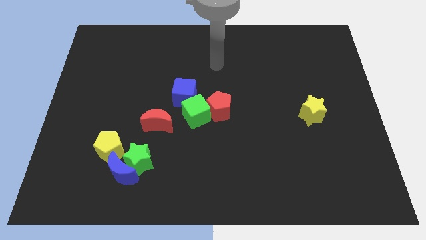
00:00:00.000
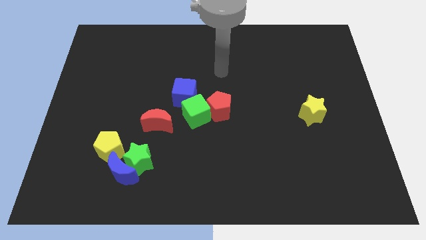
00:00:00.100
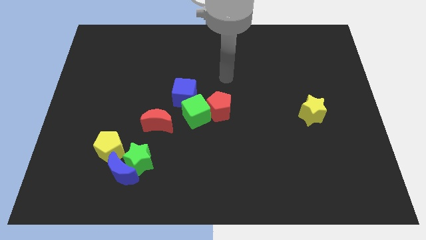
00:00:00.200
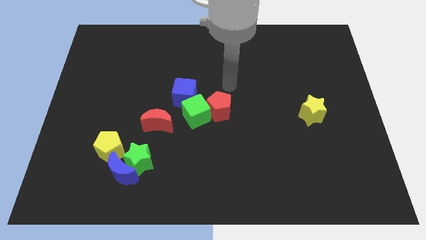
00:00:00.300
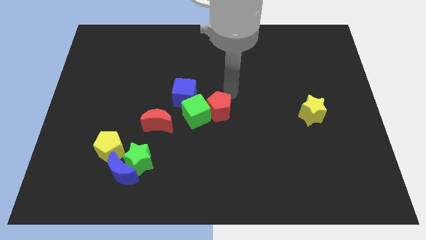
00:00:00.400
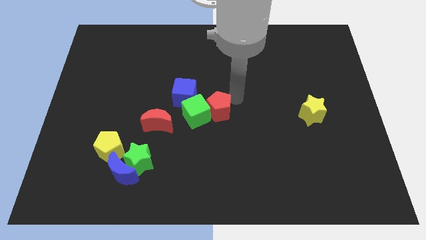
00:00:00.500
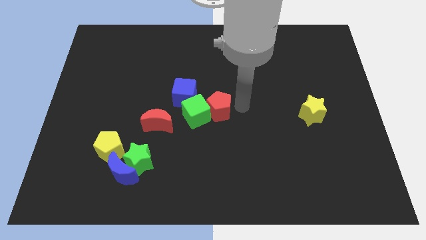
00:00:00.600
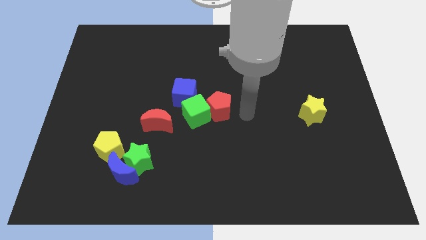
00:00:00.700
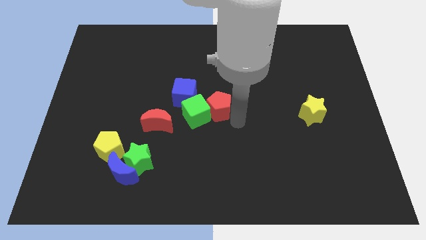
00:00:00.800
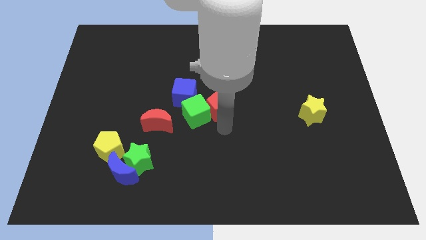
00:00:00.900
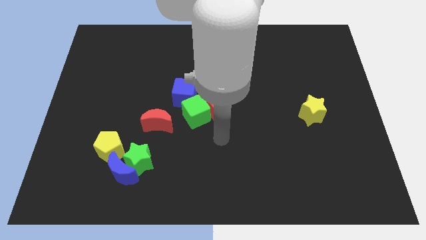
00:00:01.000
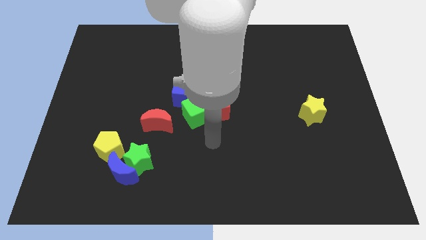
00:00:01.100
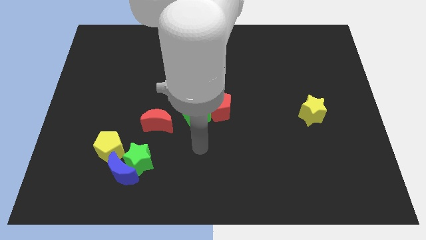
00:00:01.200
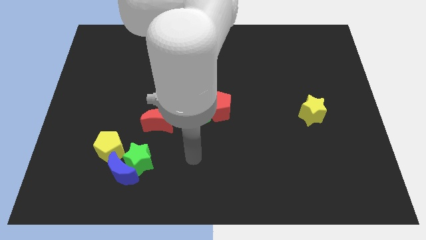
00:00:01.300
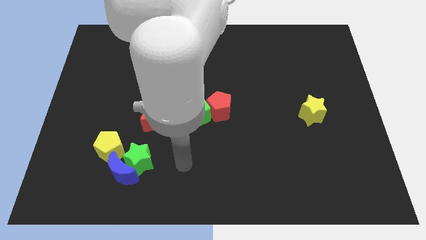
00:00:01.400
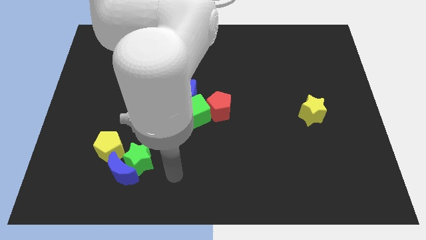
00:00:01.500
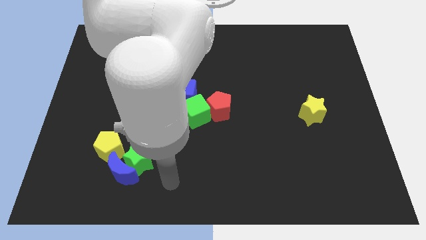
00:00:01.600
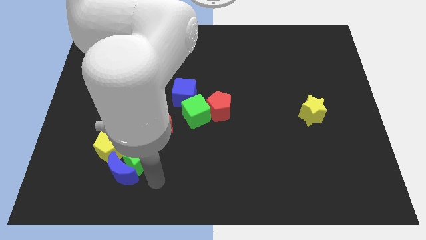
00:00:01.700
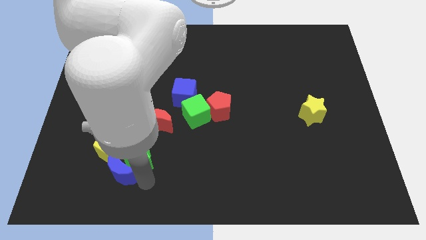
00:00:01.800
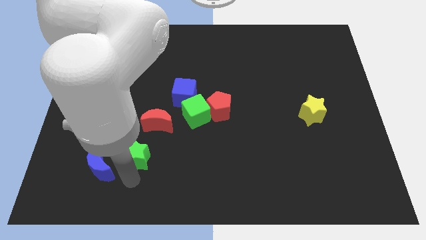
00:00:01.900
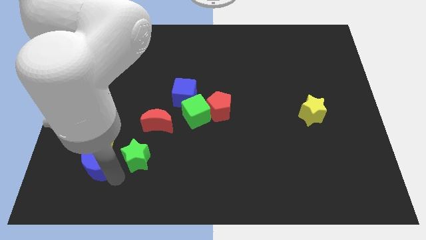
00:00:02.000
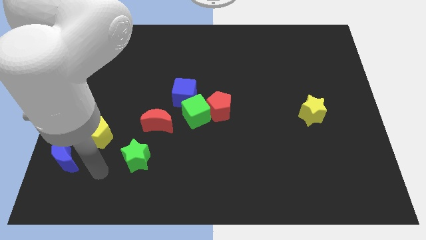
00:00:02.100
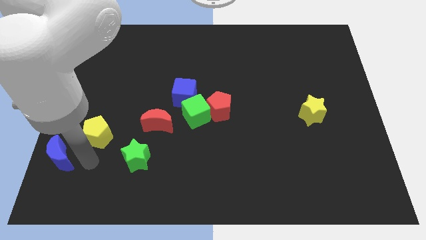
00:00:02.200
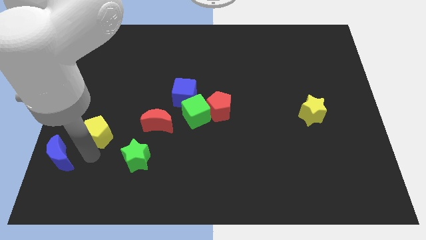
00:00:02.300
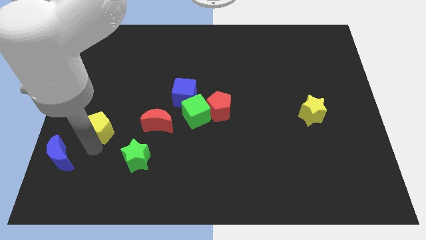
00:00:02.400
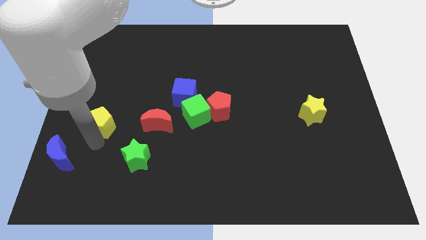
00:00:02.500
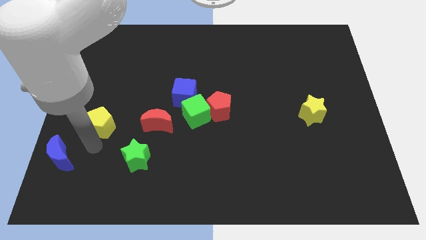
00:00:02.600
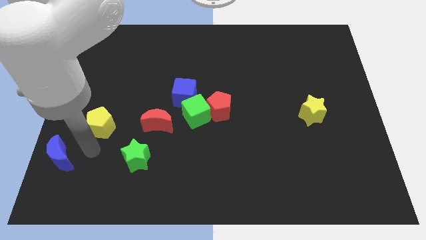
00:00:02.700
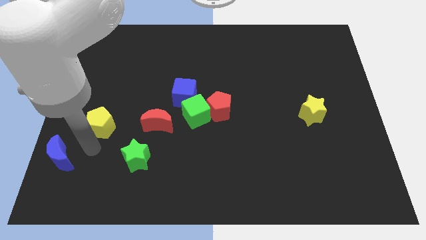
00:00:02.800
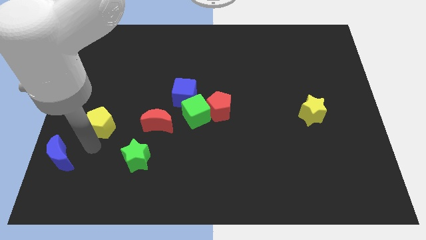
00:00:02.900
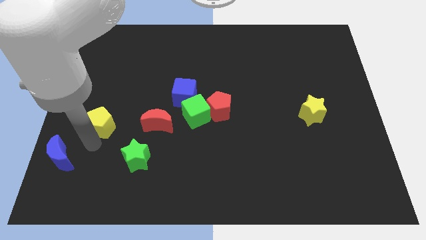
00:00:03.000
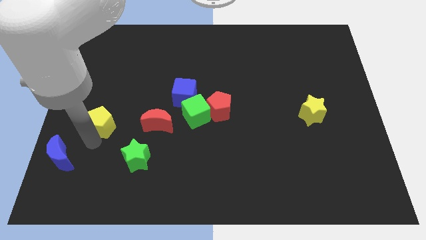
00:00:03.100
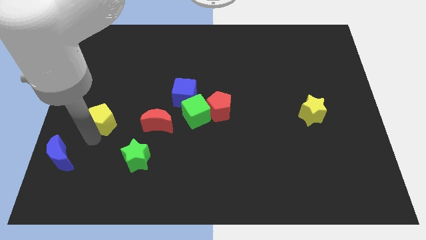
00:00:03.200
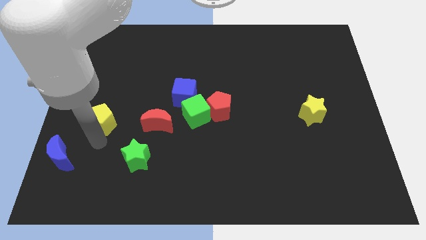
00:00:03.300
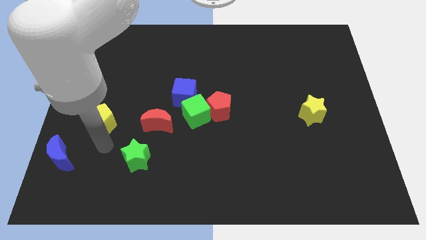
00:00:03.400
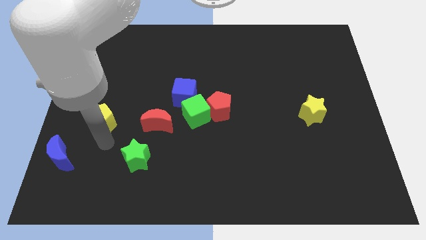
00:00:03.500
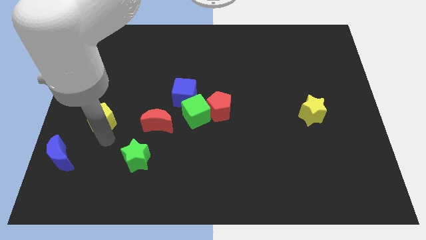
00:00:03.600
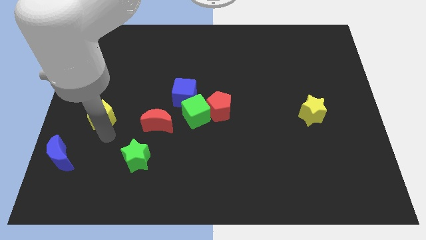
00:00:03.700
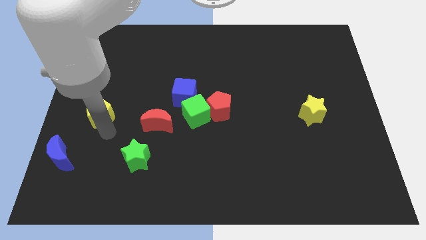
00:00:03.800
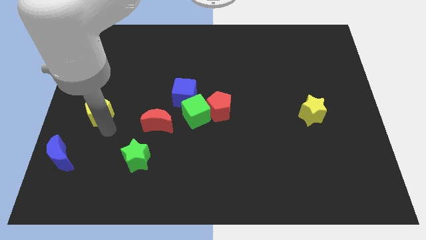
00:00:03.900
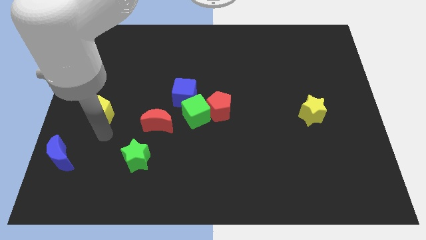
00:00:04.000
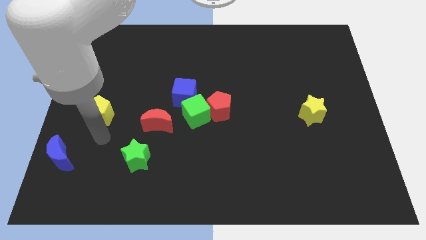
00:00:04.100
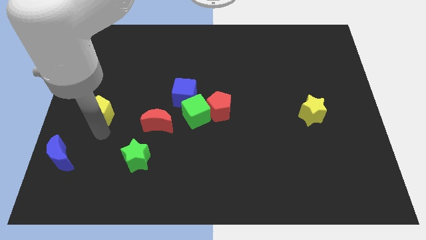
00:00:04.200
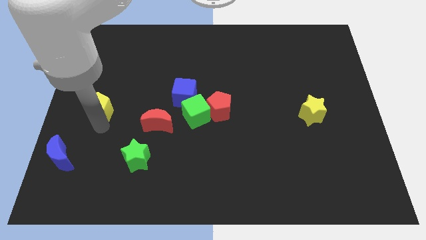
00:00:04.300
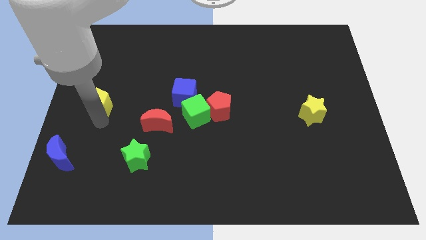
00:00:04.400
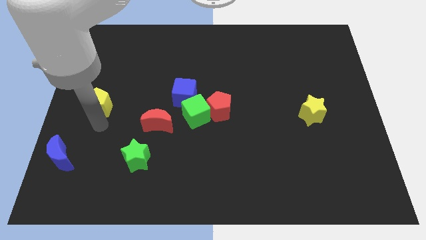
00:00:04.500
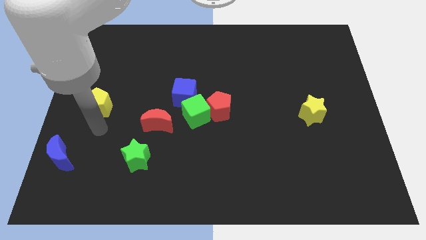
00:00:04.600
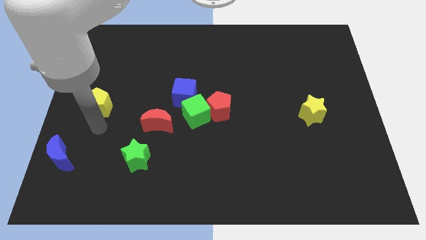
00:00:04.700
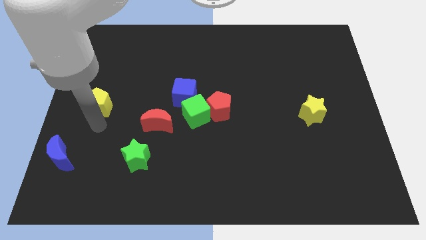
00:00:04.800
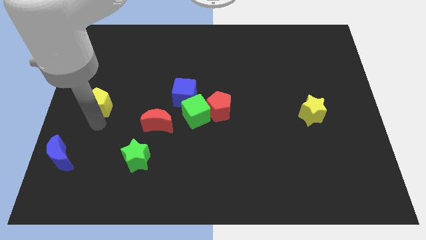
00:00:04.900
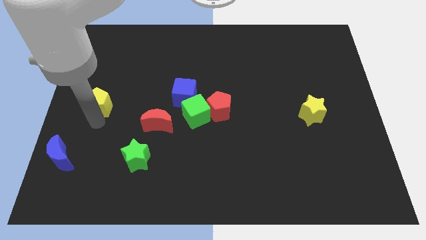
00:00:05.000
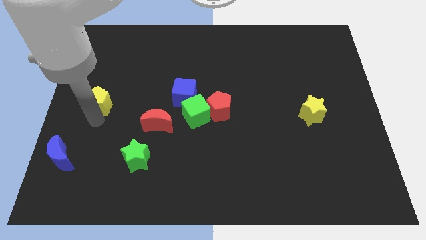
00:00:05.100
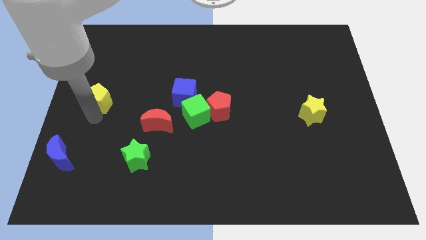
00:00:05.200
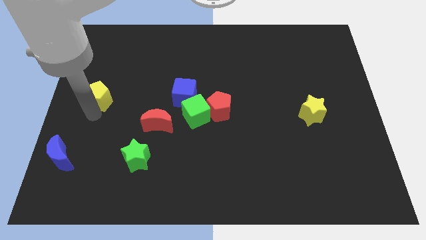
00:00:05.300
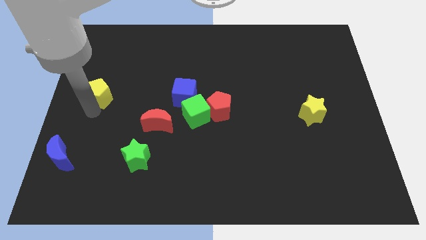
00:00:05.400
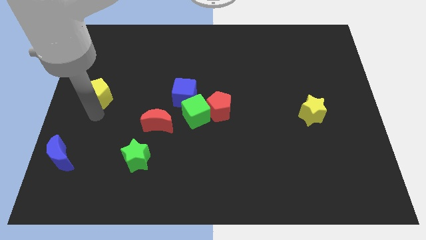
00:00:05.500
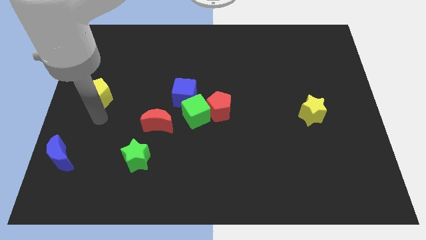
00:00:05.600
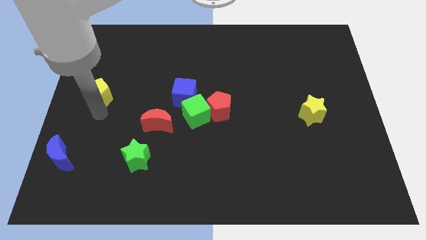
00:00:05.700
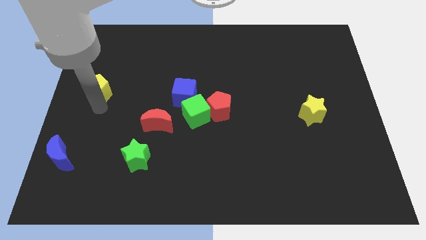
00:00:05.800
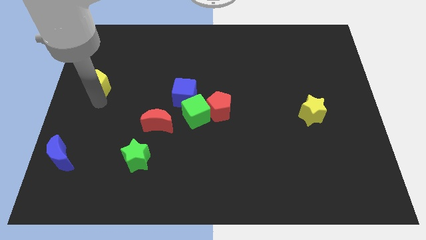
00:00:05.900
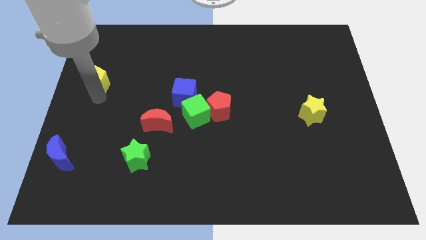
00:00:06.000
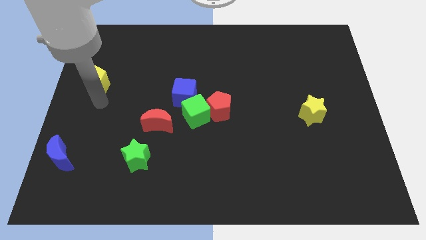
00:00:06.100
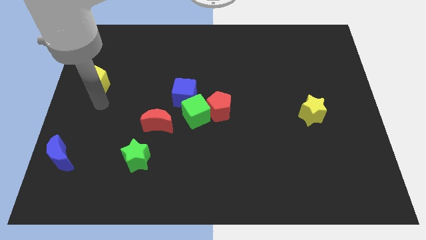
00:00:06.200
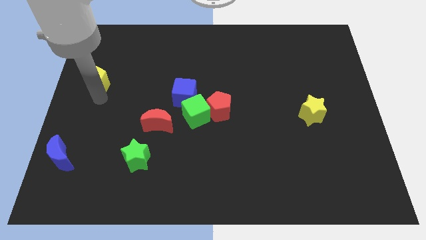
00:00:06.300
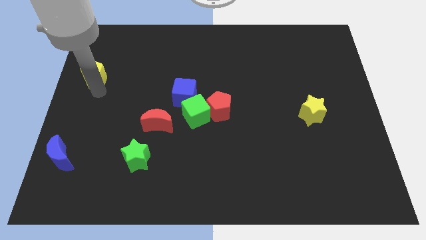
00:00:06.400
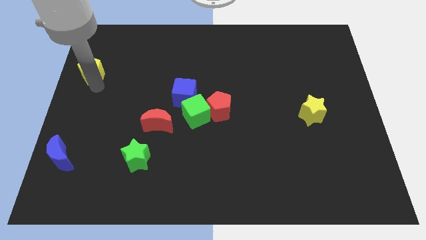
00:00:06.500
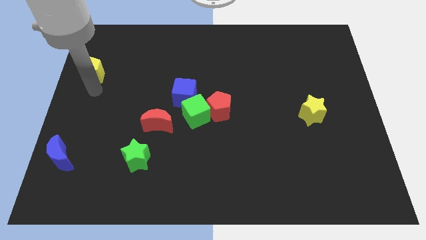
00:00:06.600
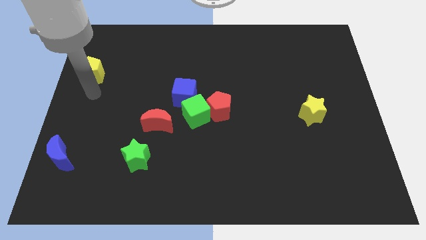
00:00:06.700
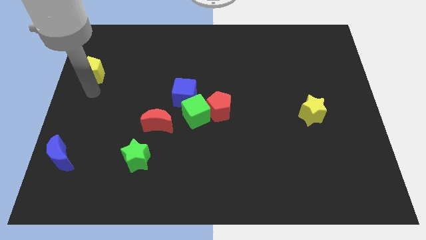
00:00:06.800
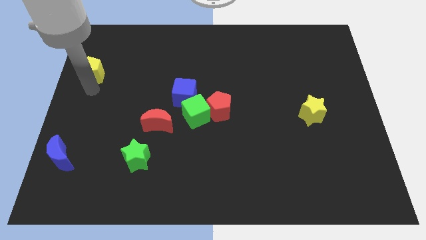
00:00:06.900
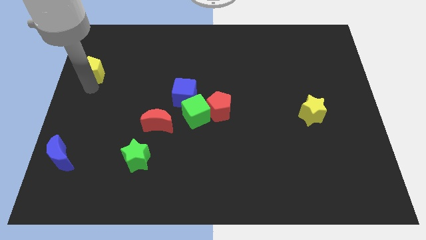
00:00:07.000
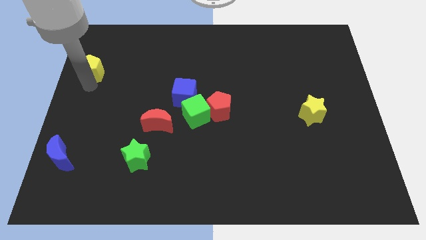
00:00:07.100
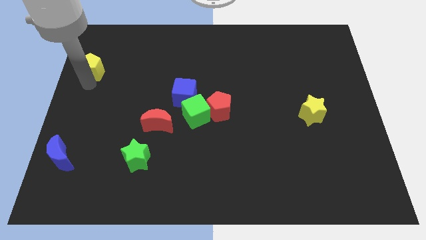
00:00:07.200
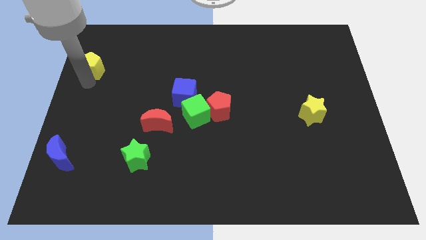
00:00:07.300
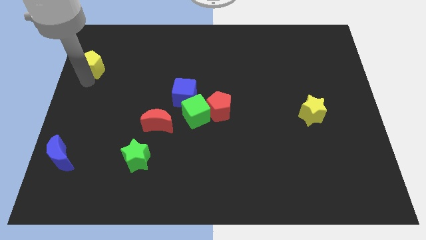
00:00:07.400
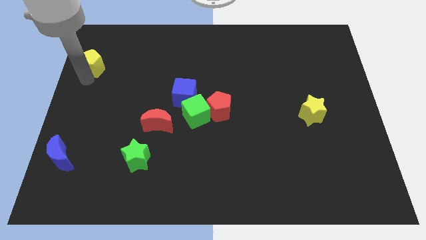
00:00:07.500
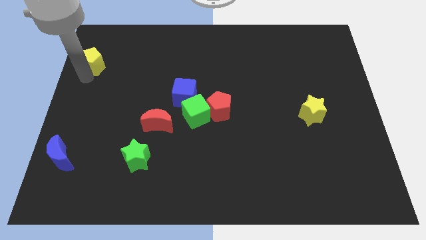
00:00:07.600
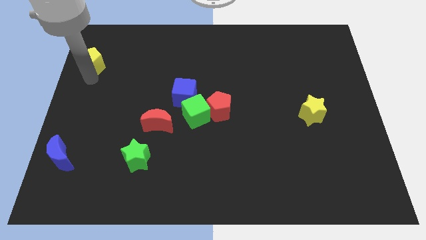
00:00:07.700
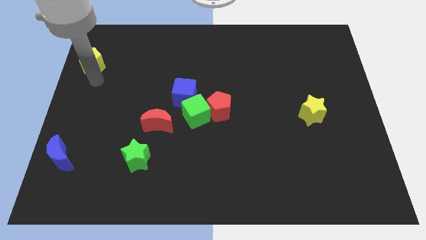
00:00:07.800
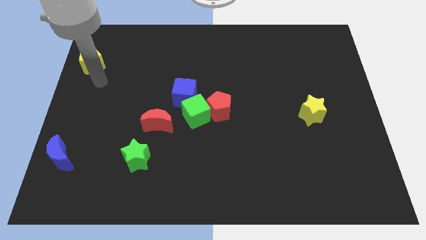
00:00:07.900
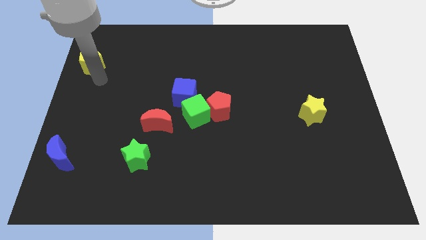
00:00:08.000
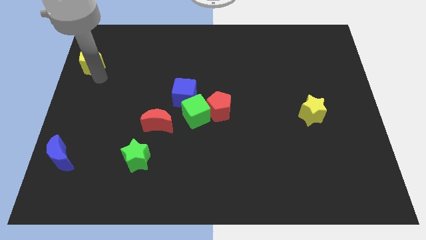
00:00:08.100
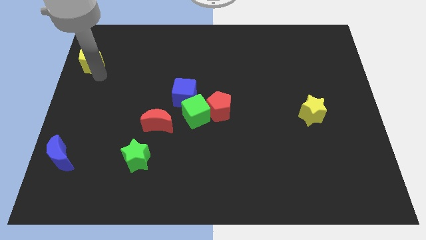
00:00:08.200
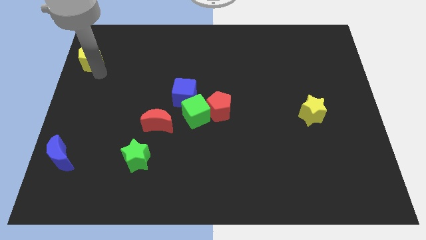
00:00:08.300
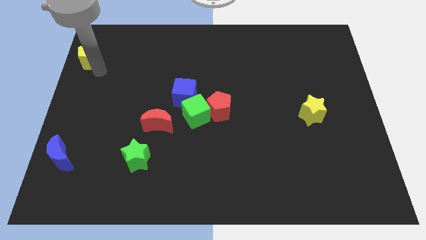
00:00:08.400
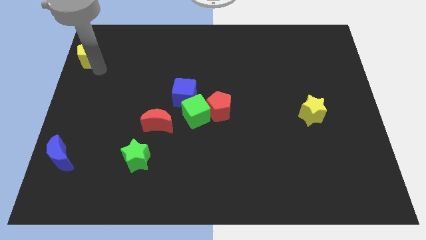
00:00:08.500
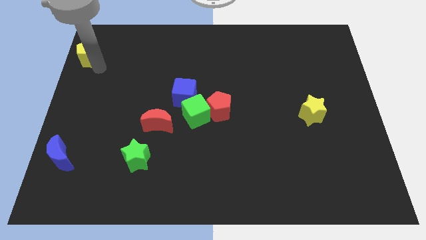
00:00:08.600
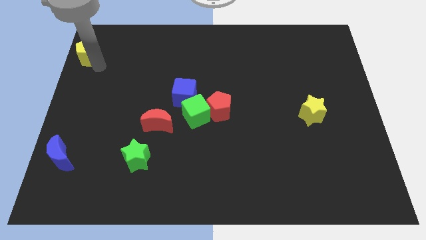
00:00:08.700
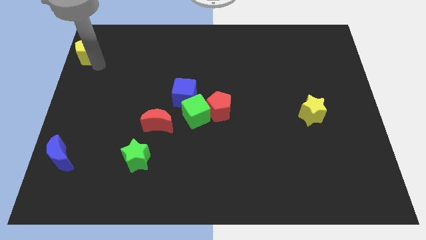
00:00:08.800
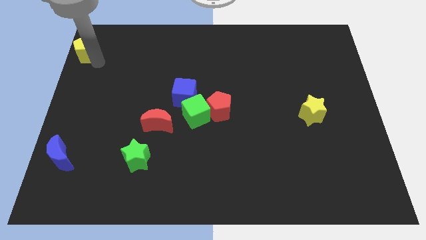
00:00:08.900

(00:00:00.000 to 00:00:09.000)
slide the yellow pentagon to the upper left corner
